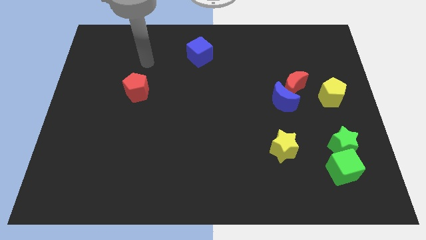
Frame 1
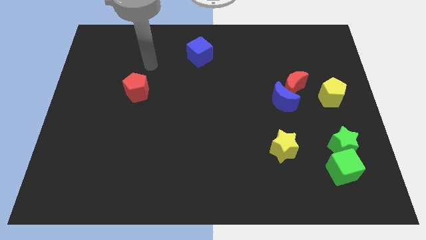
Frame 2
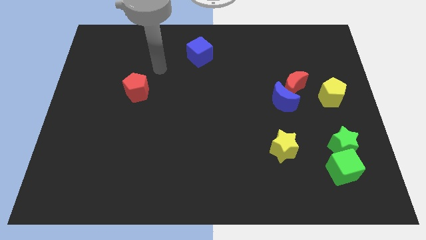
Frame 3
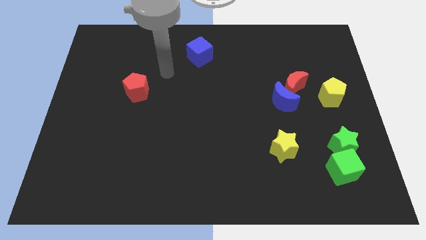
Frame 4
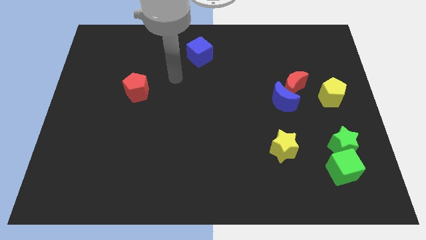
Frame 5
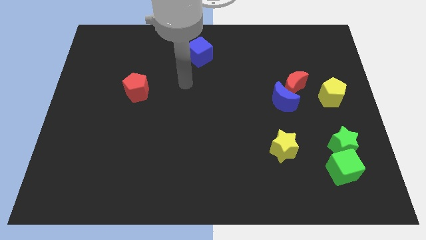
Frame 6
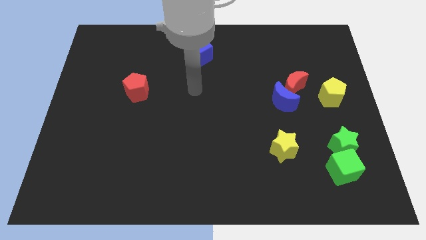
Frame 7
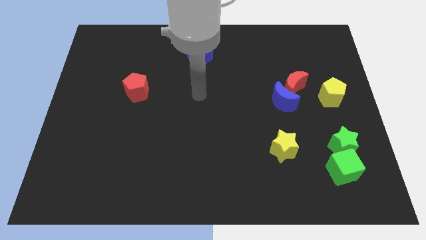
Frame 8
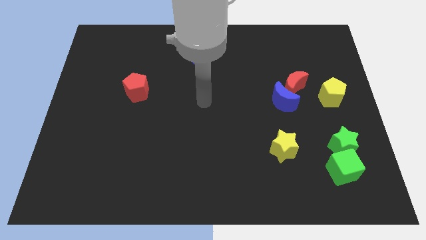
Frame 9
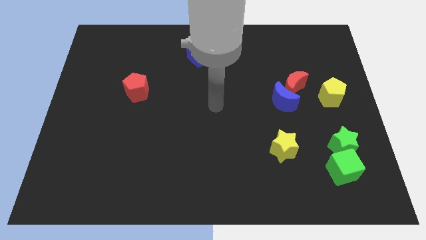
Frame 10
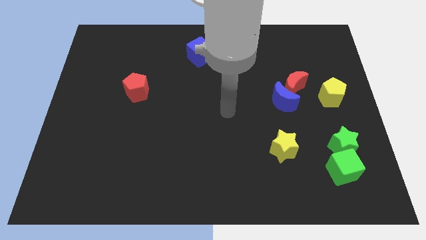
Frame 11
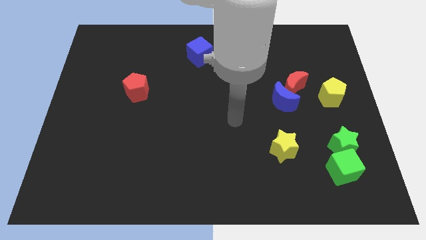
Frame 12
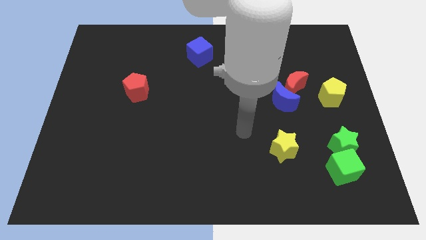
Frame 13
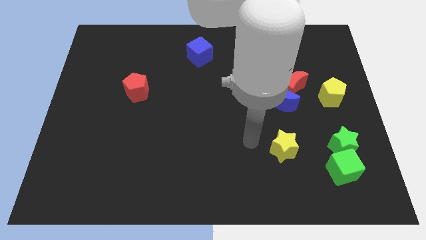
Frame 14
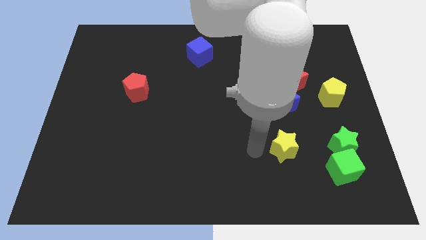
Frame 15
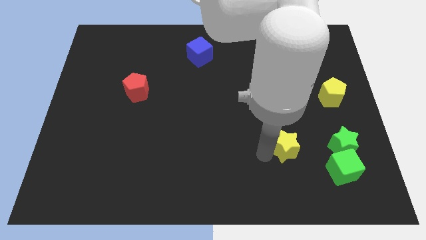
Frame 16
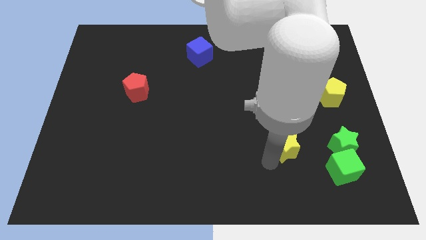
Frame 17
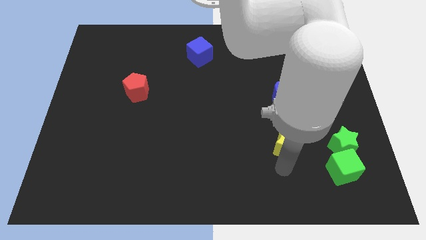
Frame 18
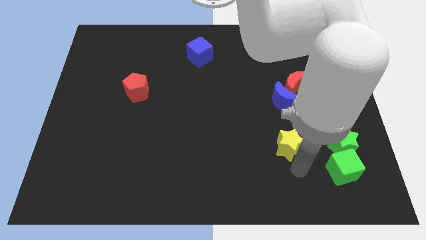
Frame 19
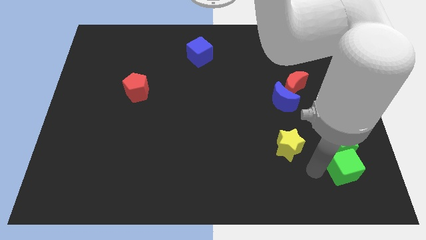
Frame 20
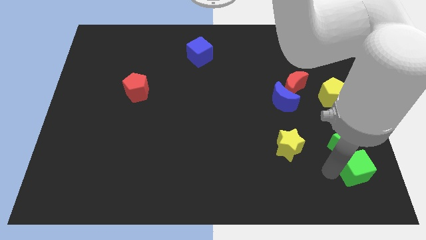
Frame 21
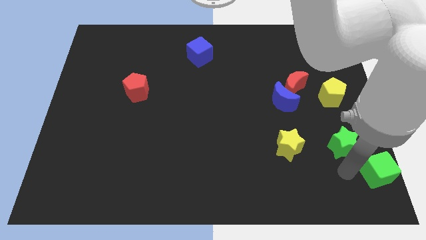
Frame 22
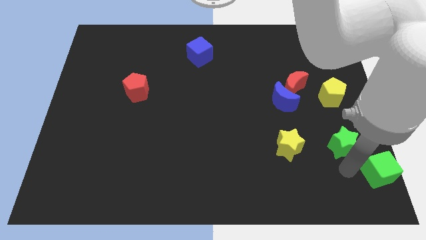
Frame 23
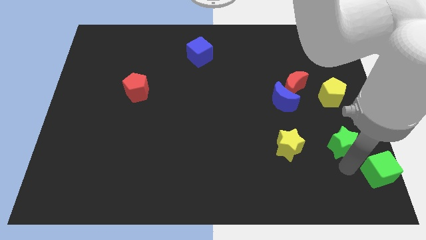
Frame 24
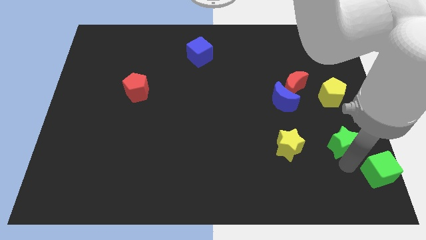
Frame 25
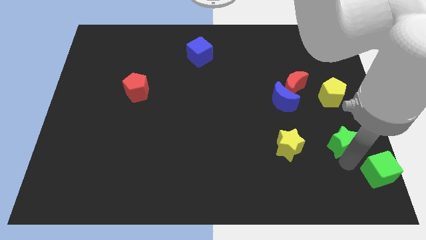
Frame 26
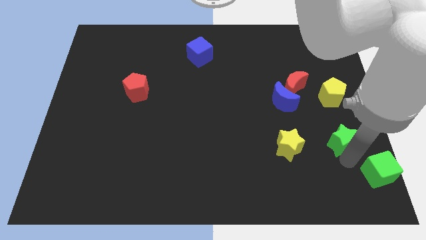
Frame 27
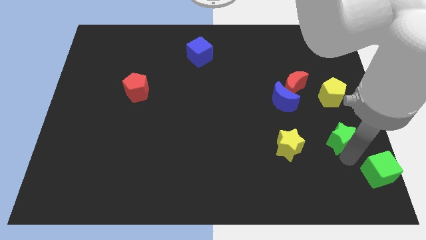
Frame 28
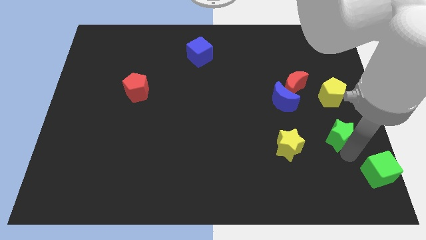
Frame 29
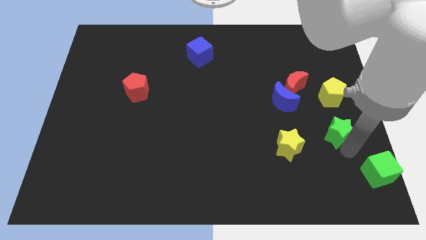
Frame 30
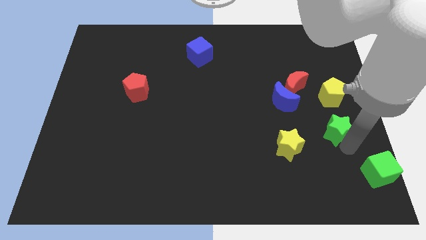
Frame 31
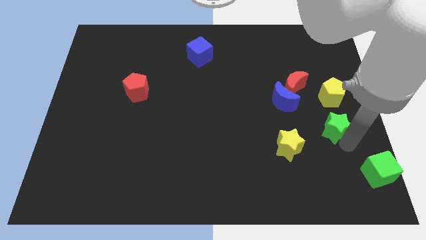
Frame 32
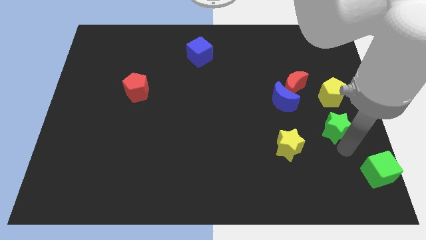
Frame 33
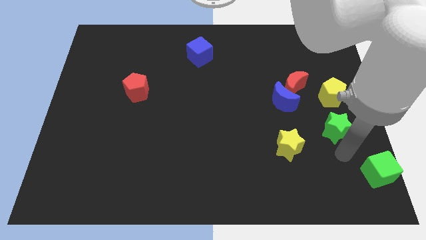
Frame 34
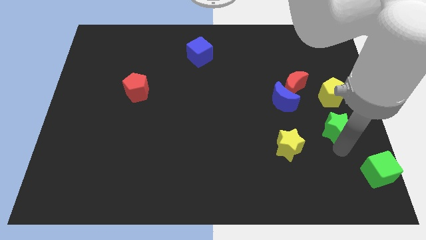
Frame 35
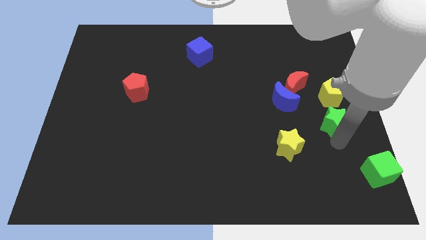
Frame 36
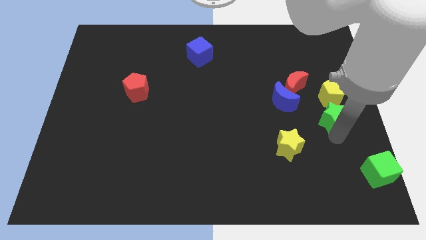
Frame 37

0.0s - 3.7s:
move the green star upwards a little

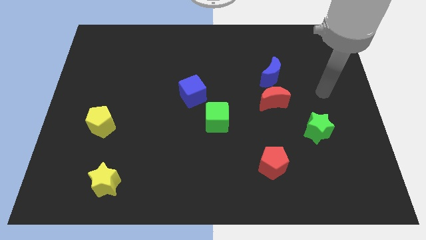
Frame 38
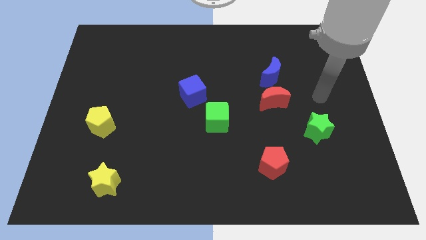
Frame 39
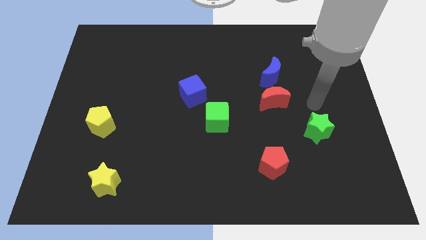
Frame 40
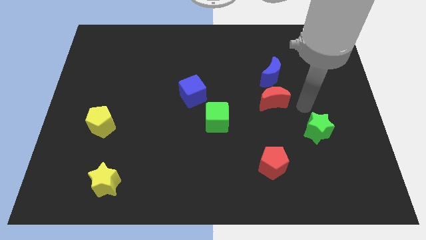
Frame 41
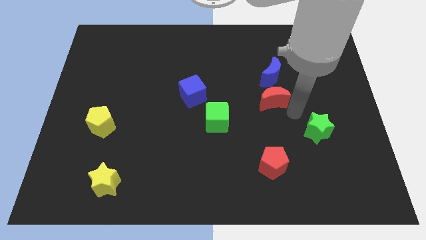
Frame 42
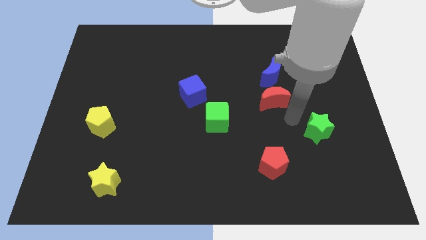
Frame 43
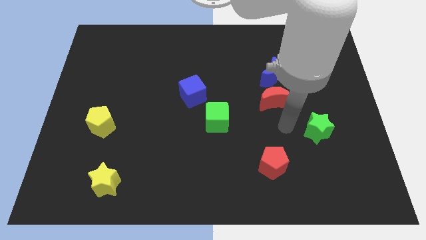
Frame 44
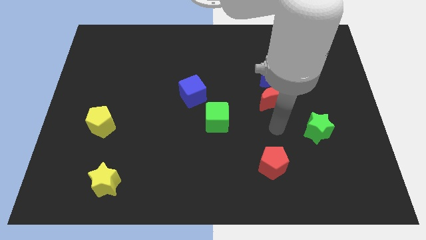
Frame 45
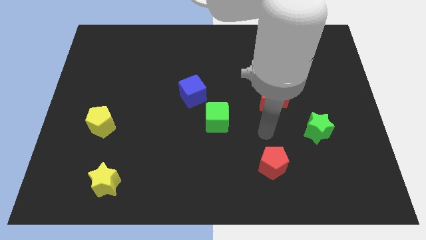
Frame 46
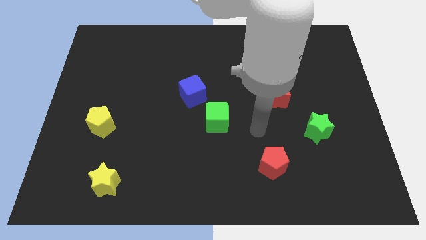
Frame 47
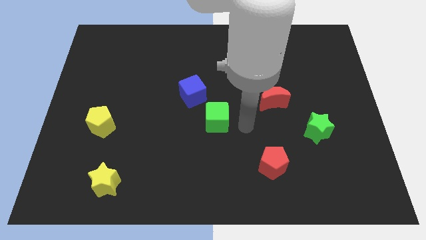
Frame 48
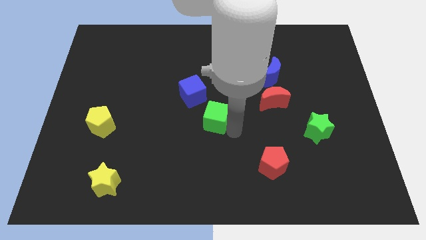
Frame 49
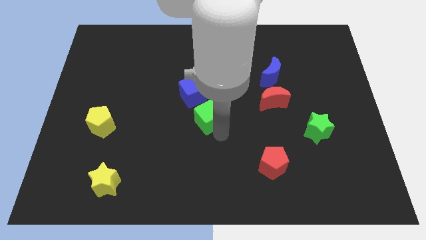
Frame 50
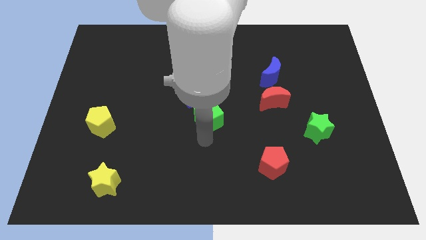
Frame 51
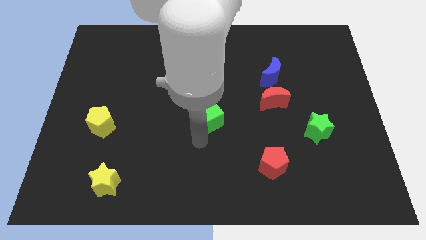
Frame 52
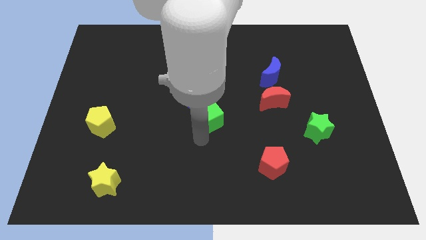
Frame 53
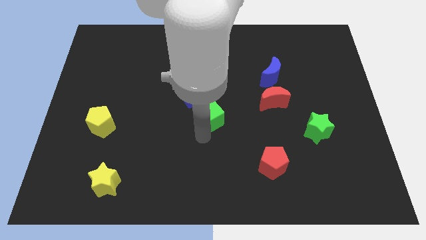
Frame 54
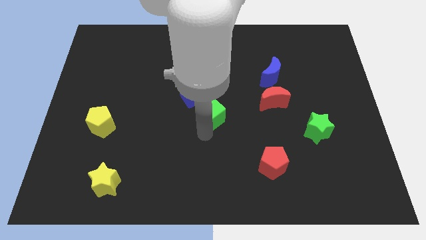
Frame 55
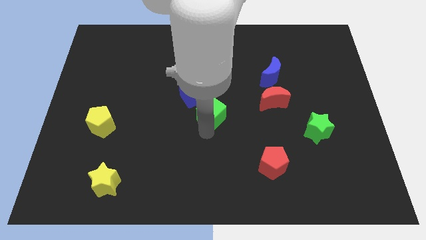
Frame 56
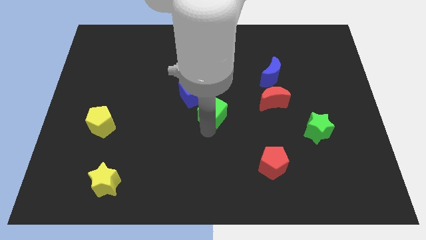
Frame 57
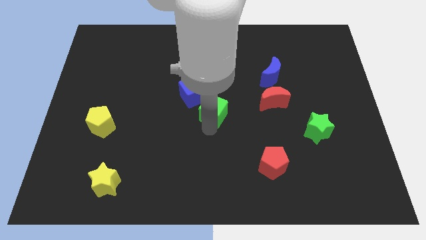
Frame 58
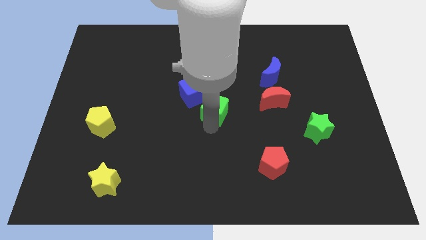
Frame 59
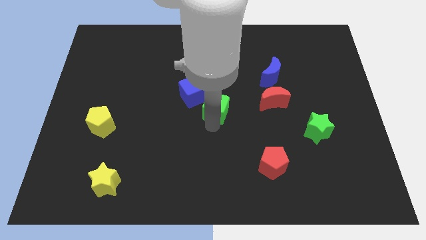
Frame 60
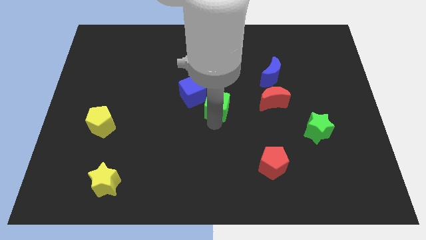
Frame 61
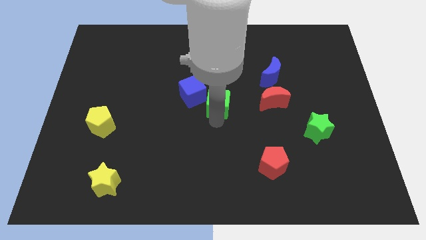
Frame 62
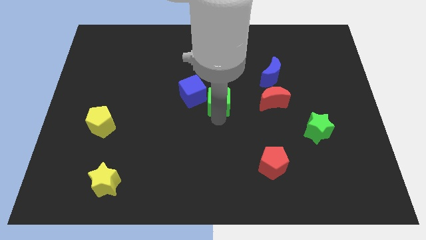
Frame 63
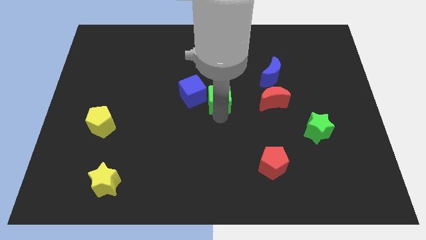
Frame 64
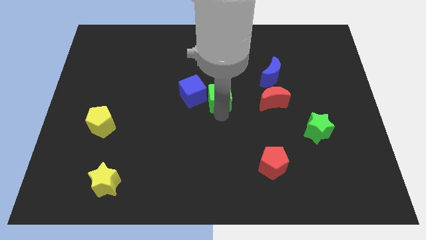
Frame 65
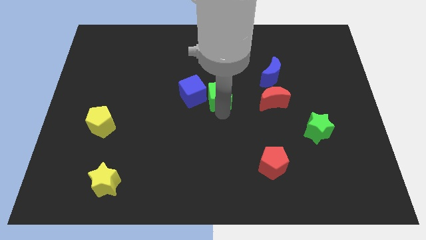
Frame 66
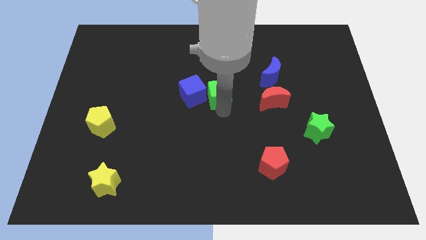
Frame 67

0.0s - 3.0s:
push the green cube up a little

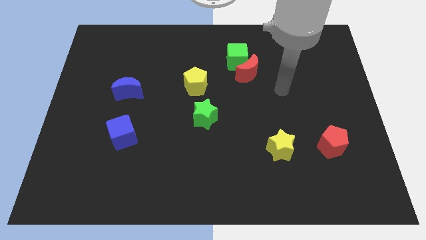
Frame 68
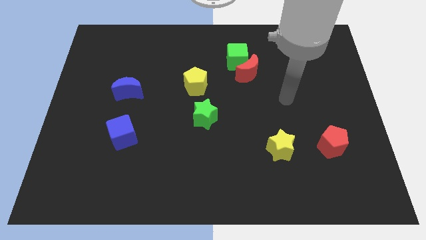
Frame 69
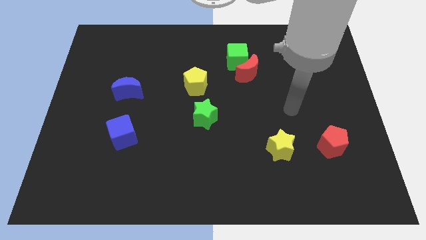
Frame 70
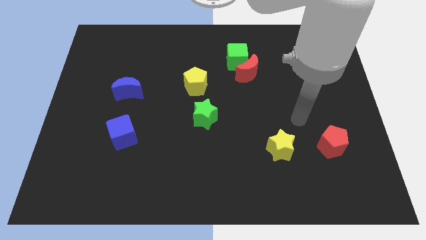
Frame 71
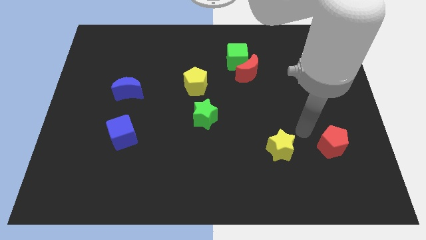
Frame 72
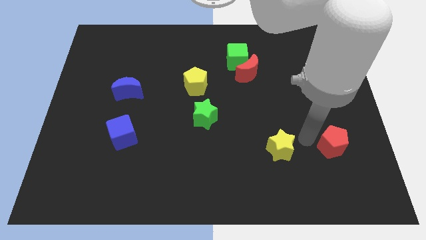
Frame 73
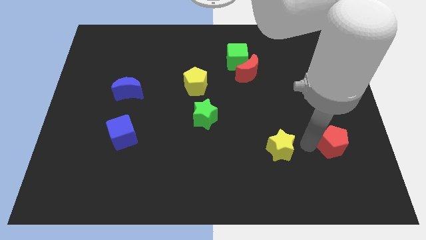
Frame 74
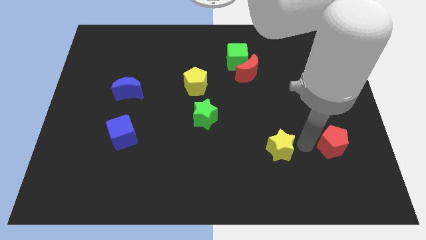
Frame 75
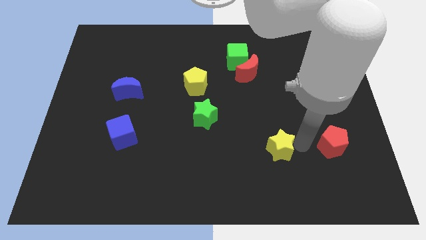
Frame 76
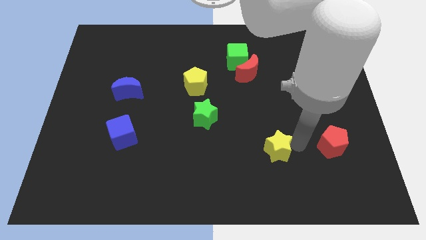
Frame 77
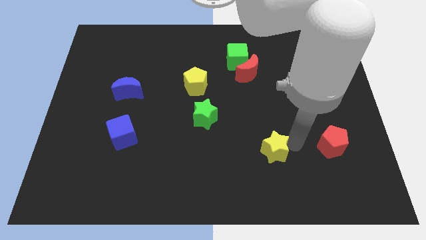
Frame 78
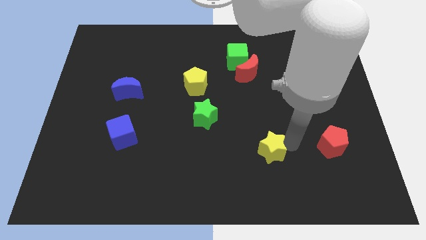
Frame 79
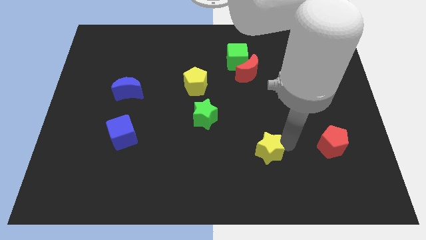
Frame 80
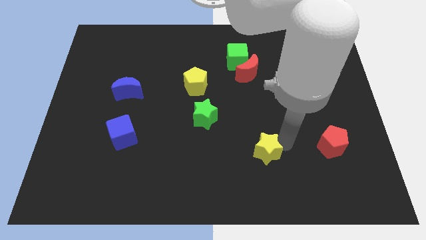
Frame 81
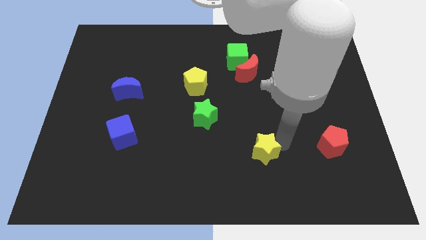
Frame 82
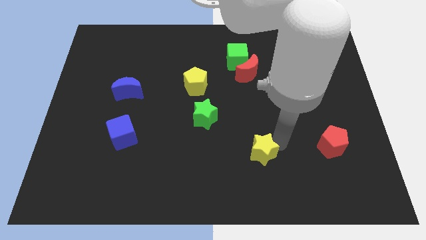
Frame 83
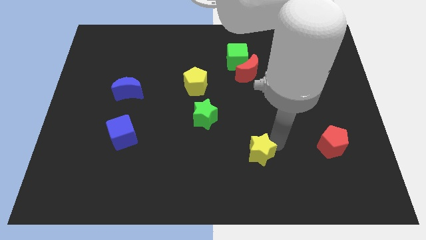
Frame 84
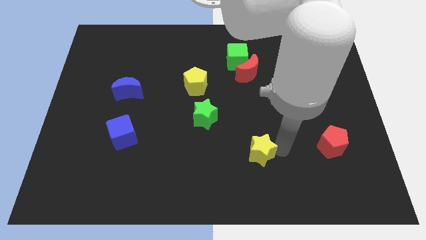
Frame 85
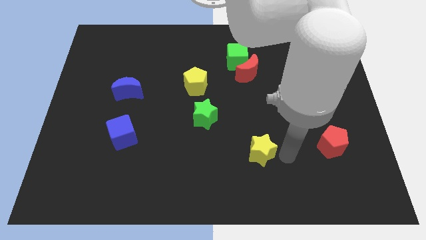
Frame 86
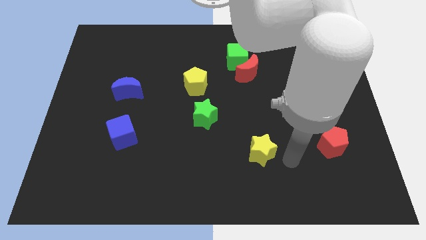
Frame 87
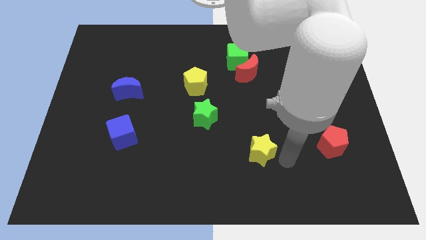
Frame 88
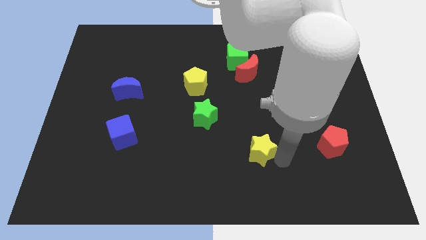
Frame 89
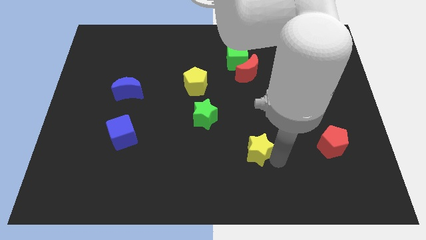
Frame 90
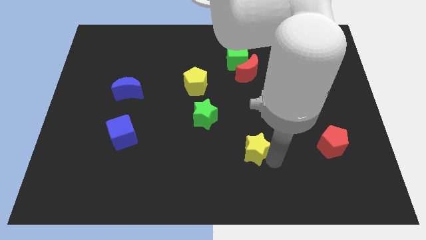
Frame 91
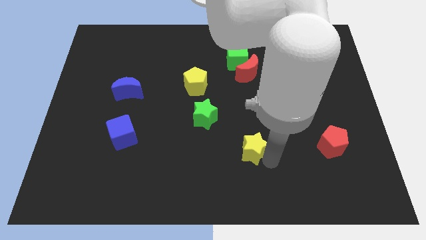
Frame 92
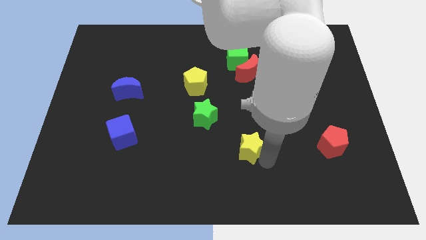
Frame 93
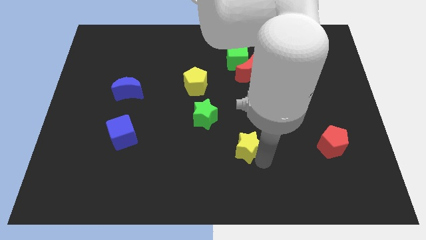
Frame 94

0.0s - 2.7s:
slide the yellow star somewhat left
